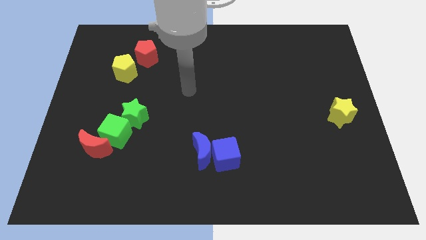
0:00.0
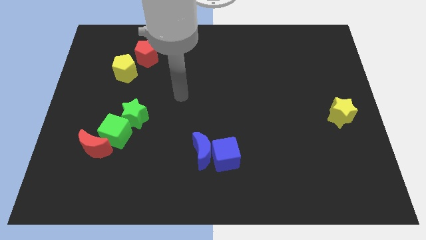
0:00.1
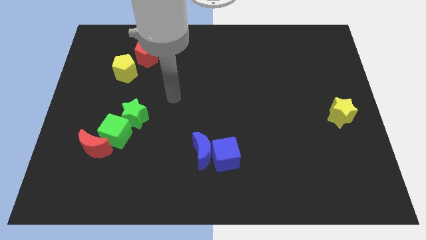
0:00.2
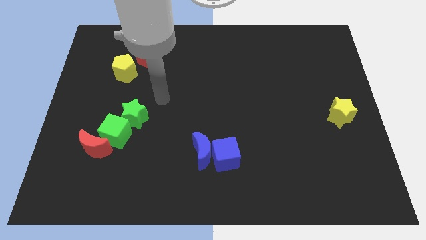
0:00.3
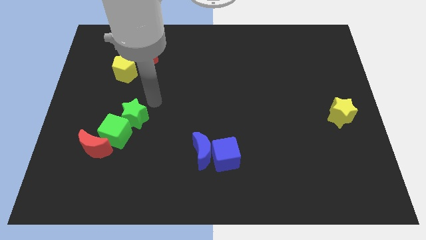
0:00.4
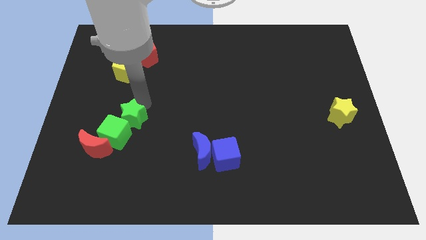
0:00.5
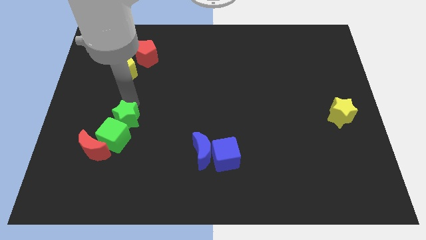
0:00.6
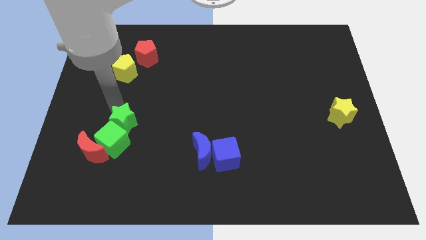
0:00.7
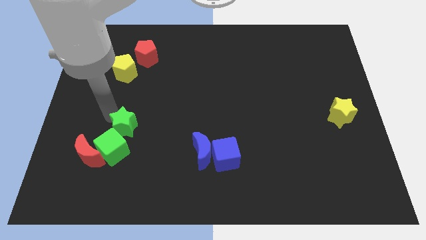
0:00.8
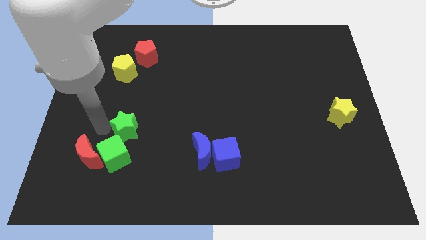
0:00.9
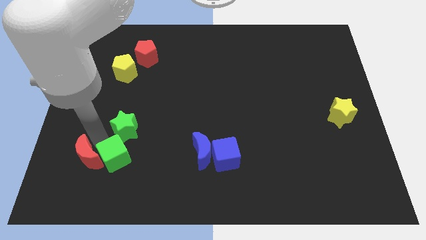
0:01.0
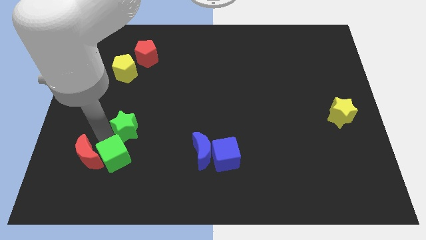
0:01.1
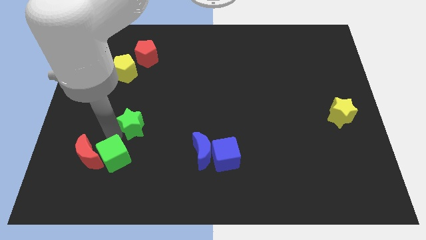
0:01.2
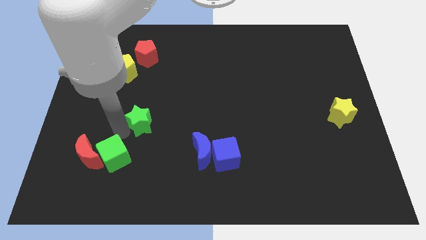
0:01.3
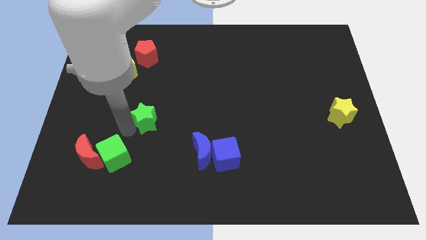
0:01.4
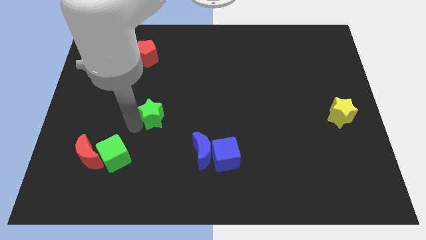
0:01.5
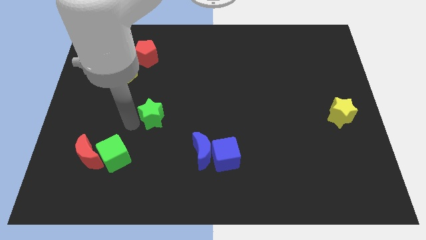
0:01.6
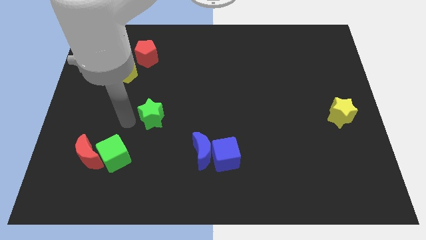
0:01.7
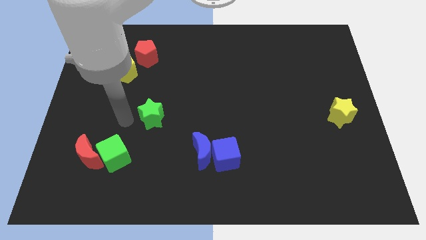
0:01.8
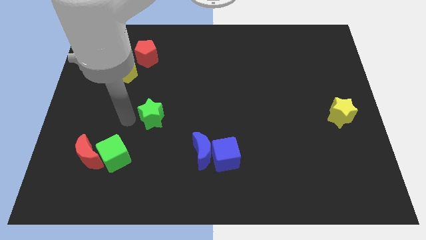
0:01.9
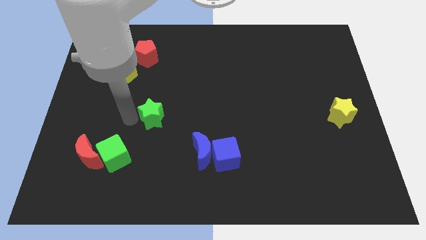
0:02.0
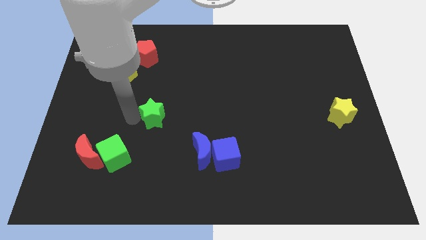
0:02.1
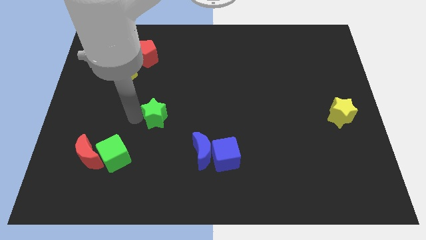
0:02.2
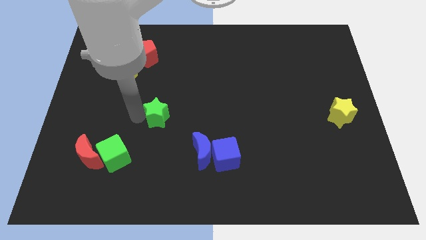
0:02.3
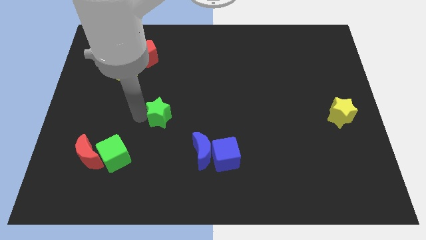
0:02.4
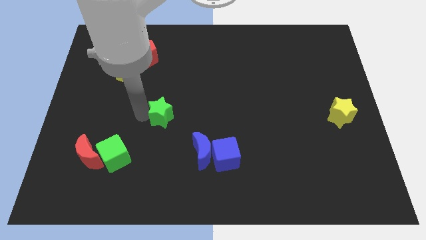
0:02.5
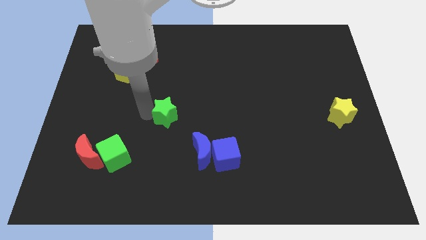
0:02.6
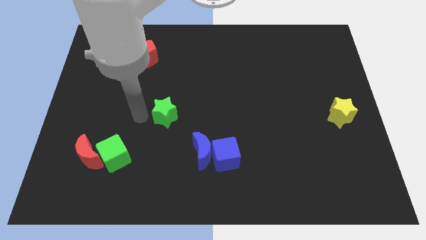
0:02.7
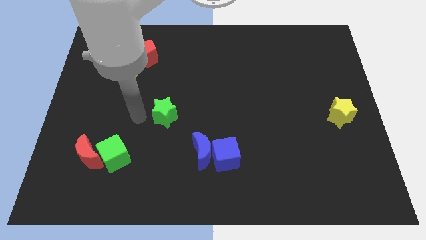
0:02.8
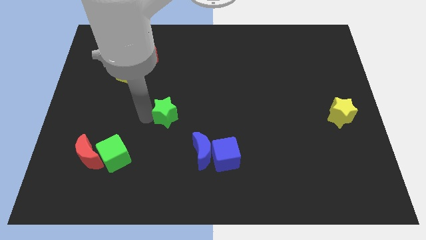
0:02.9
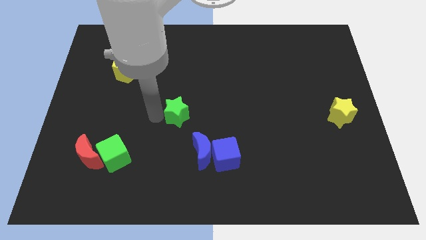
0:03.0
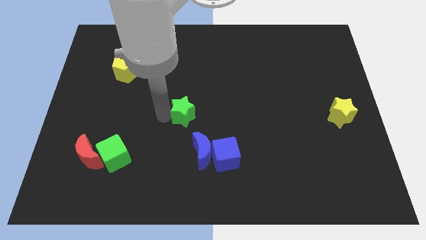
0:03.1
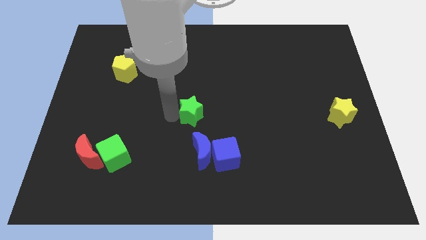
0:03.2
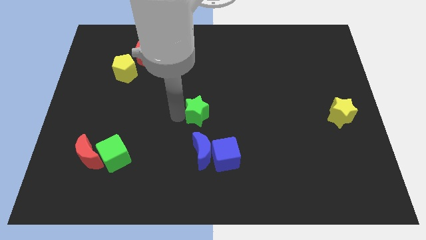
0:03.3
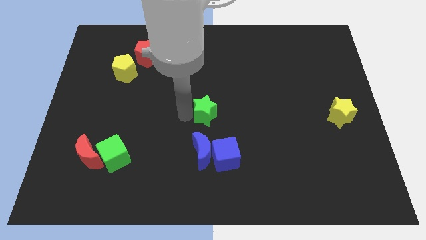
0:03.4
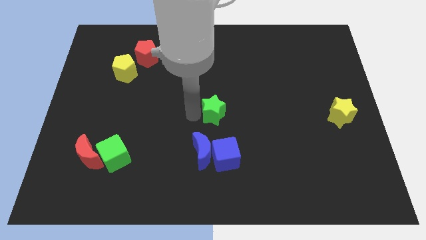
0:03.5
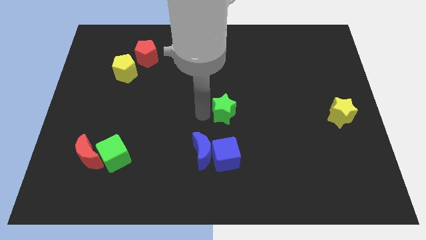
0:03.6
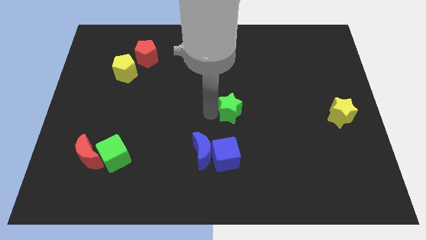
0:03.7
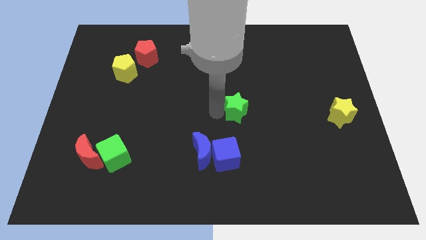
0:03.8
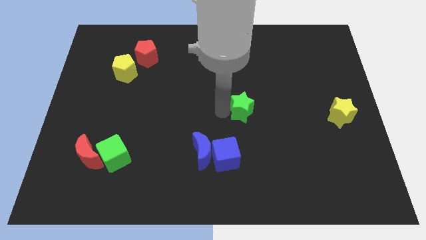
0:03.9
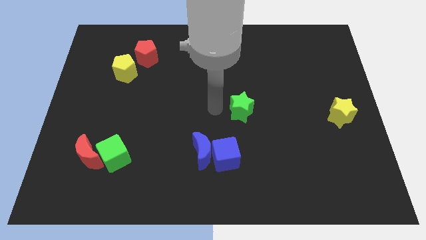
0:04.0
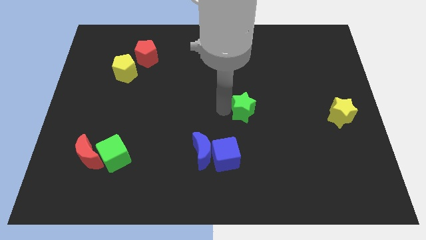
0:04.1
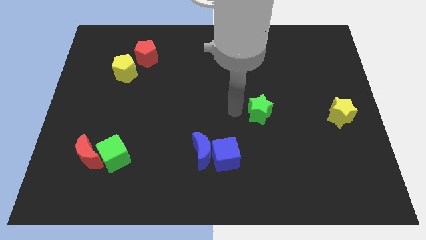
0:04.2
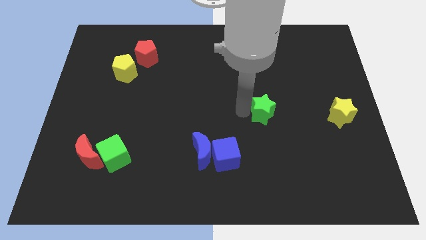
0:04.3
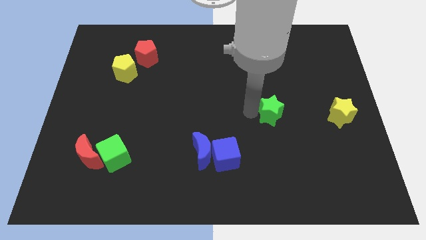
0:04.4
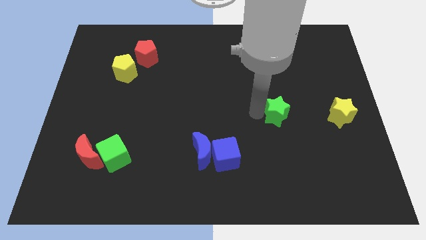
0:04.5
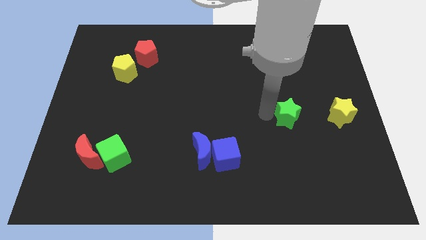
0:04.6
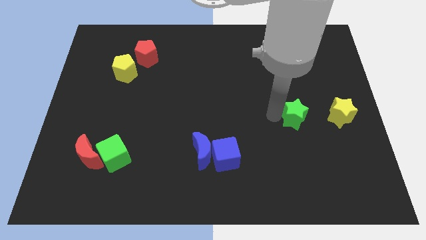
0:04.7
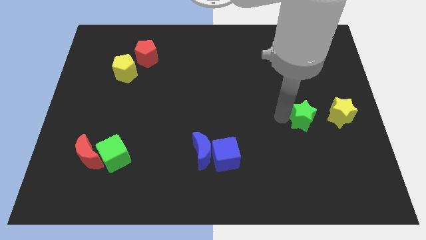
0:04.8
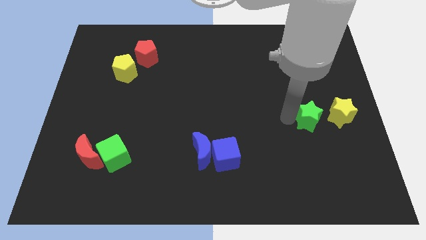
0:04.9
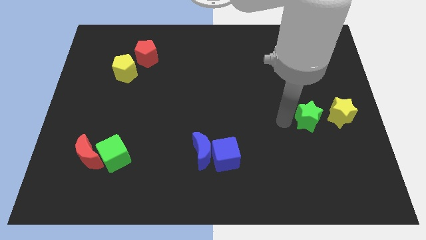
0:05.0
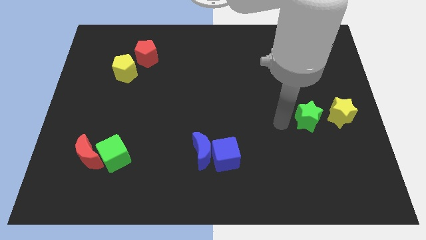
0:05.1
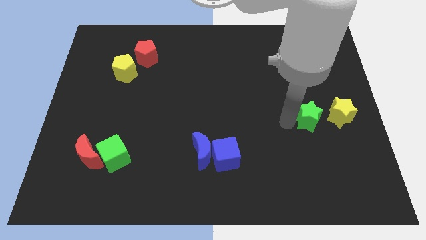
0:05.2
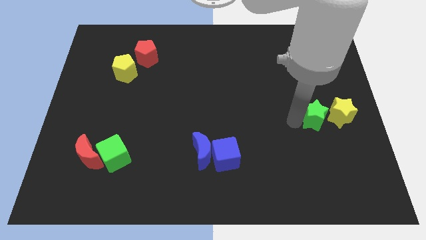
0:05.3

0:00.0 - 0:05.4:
move the green star next to the yellow star

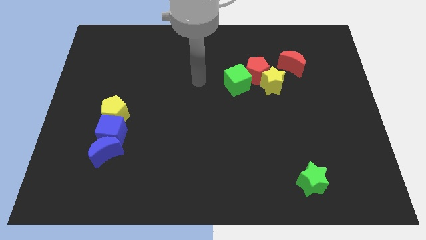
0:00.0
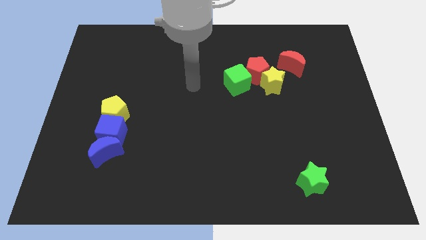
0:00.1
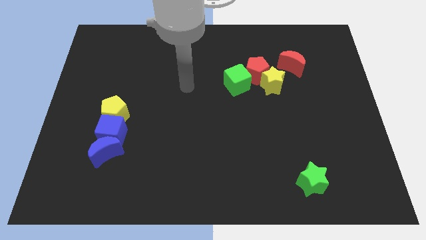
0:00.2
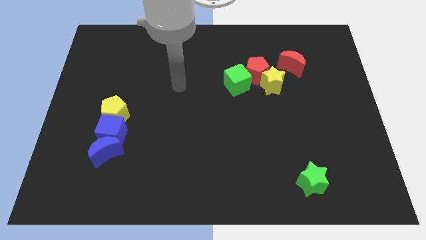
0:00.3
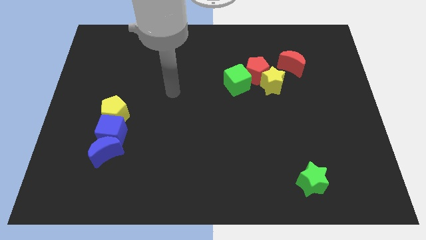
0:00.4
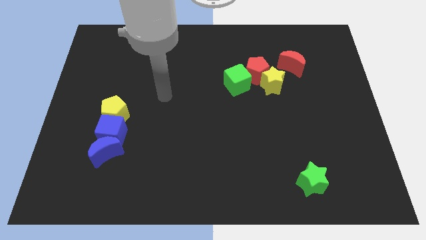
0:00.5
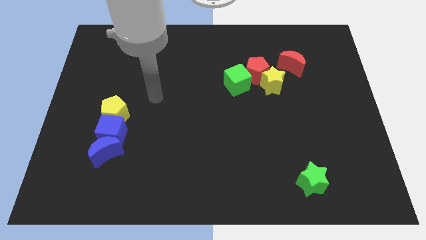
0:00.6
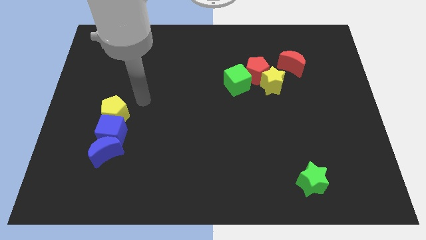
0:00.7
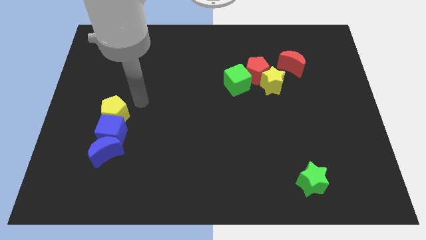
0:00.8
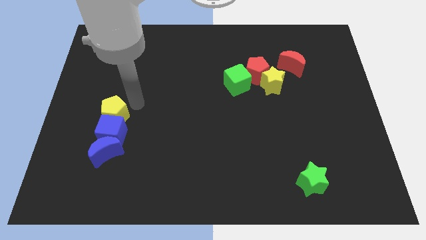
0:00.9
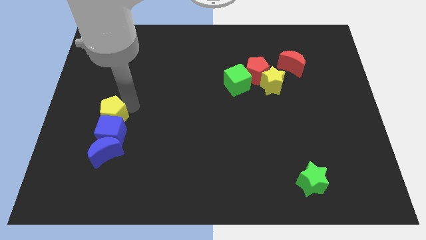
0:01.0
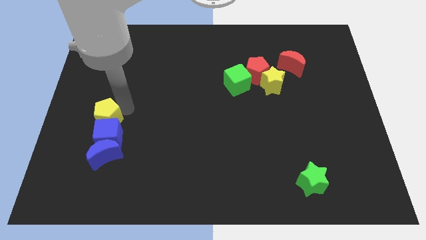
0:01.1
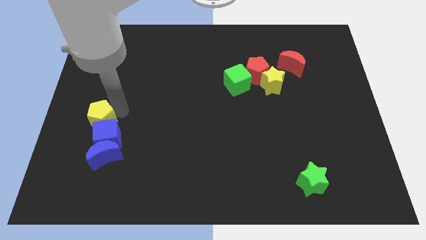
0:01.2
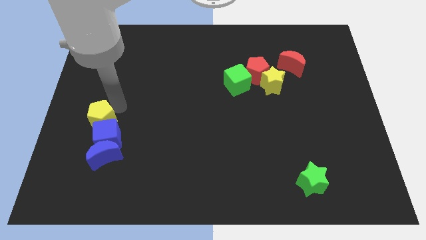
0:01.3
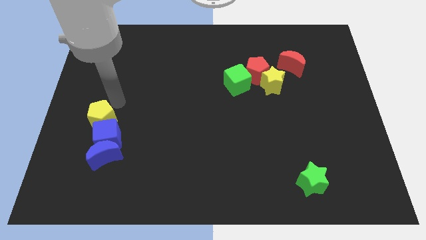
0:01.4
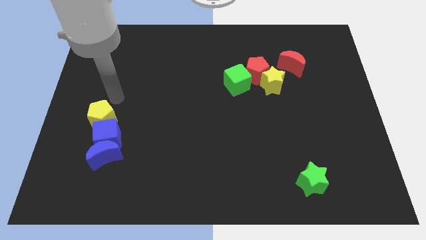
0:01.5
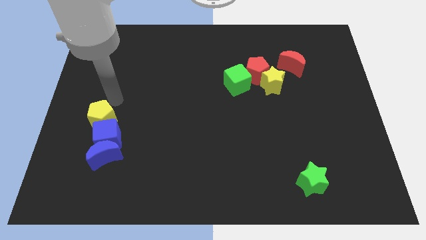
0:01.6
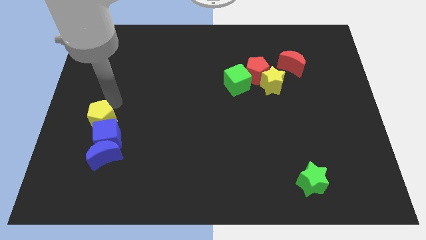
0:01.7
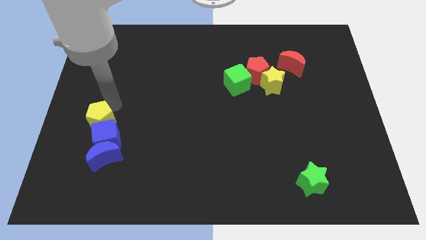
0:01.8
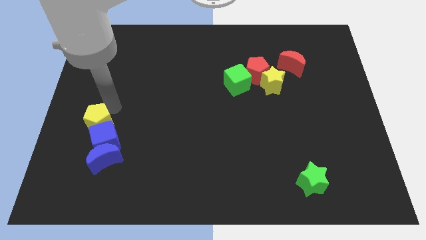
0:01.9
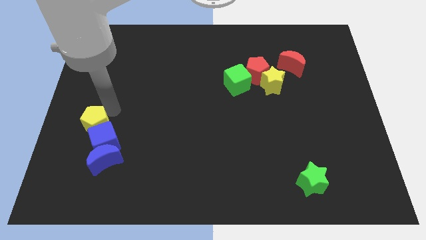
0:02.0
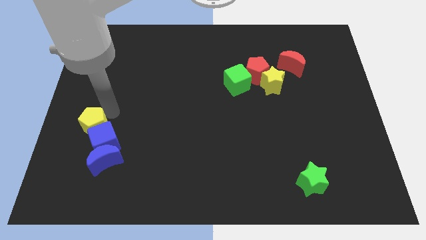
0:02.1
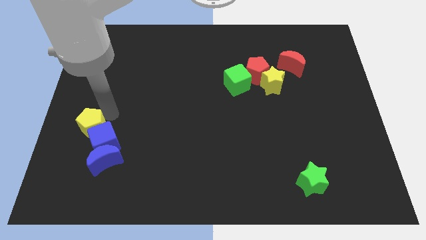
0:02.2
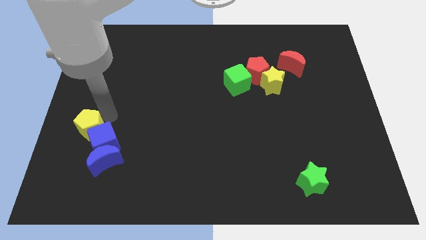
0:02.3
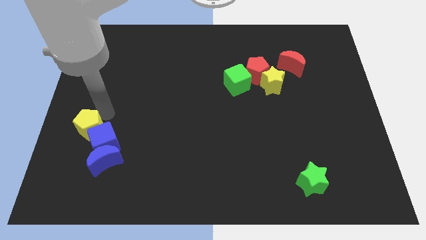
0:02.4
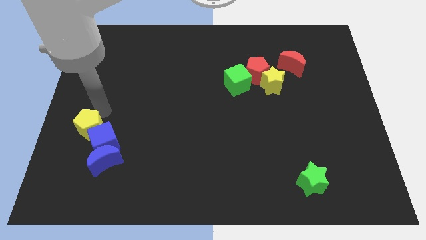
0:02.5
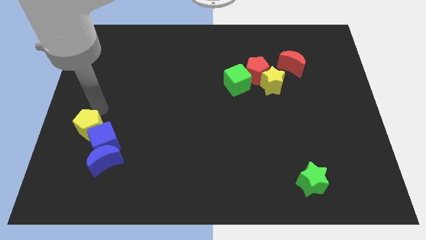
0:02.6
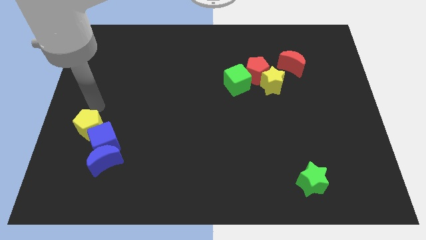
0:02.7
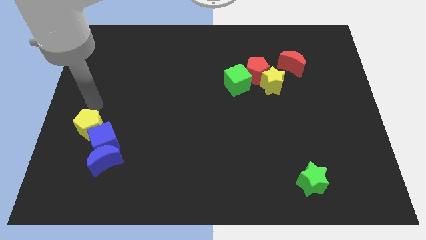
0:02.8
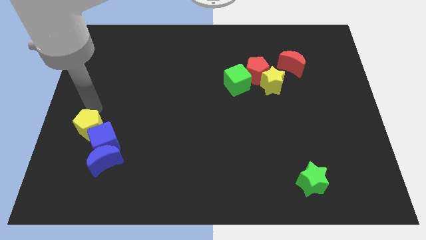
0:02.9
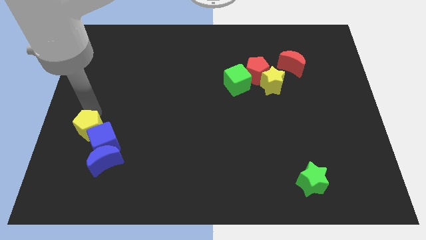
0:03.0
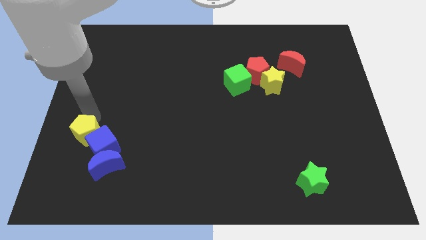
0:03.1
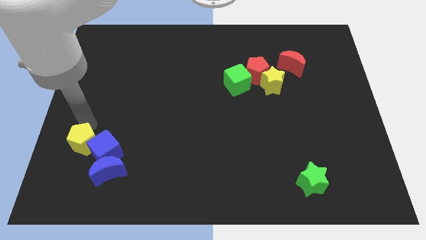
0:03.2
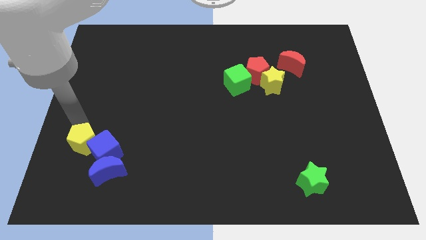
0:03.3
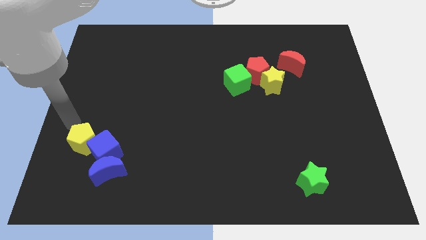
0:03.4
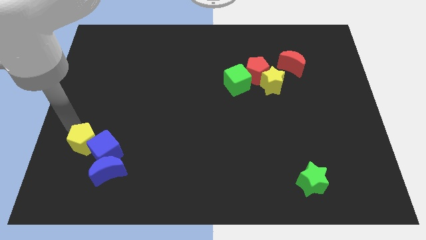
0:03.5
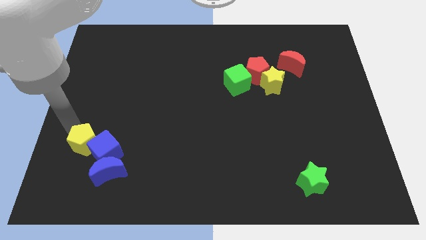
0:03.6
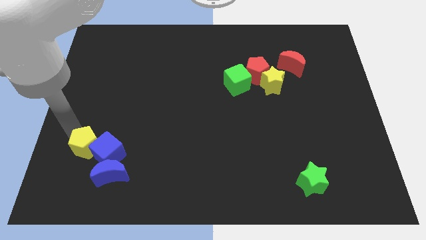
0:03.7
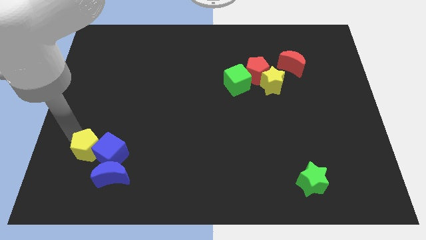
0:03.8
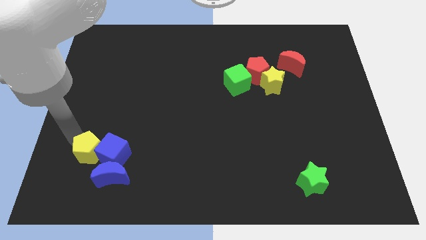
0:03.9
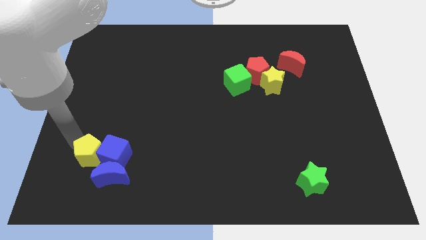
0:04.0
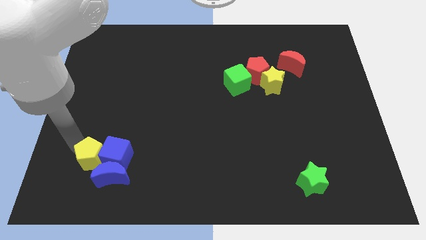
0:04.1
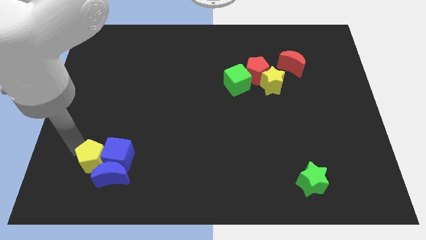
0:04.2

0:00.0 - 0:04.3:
move the yellow pentagon towards the blue moon
